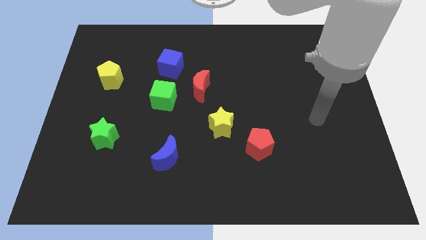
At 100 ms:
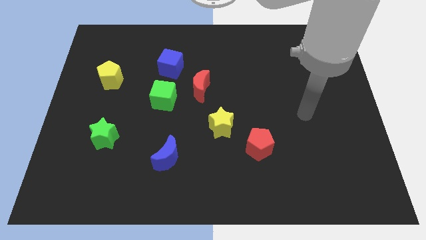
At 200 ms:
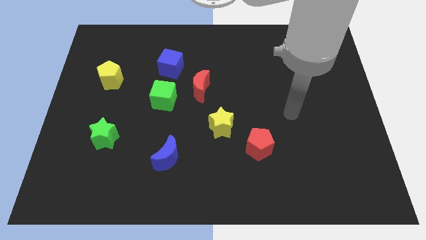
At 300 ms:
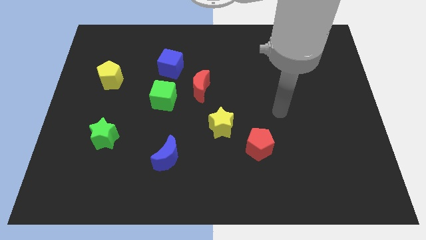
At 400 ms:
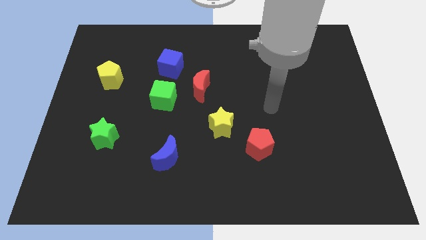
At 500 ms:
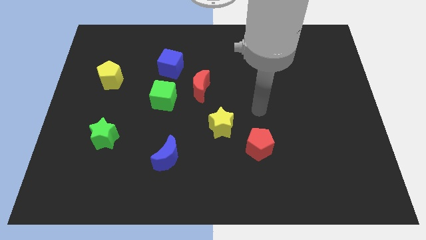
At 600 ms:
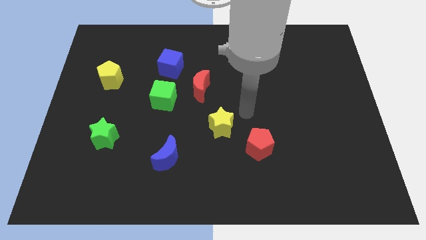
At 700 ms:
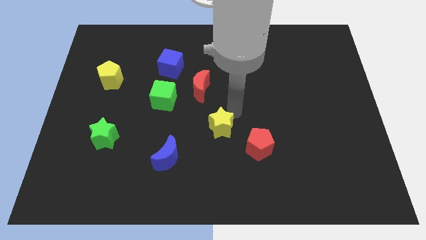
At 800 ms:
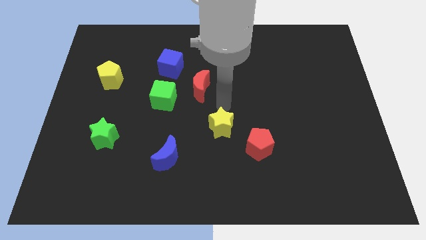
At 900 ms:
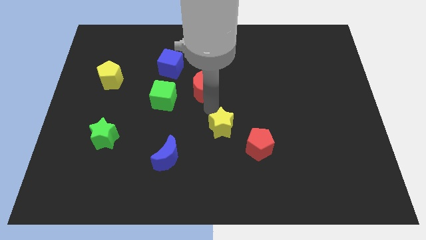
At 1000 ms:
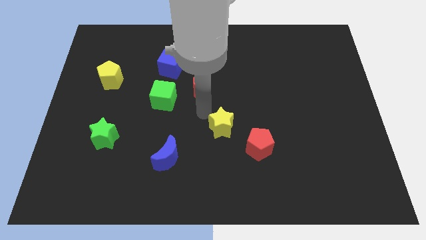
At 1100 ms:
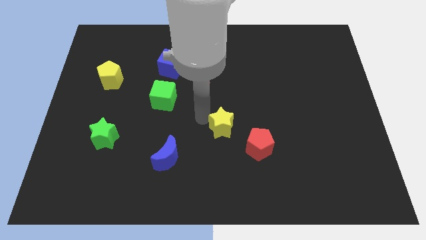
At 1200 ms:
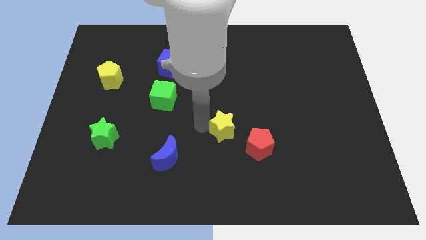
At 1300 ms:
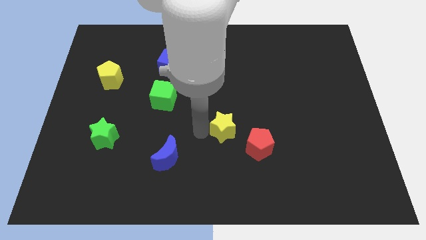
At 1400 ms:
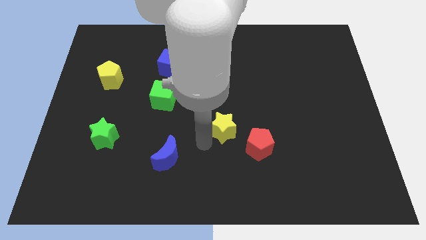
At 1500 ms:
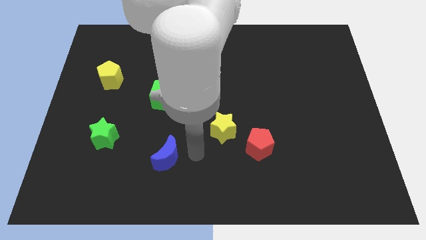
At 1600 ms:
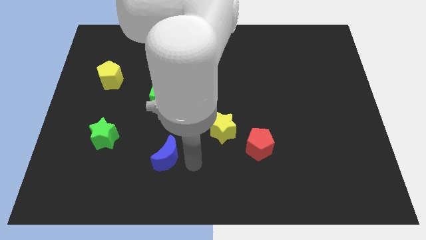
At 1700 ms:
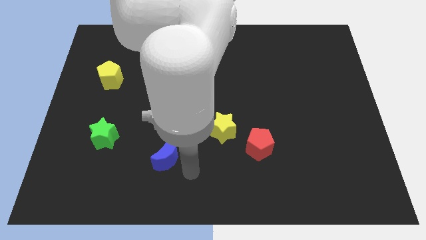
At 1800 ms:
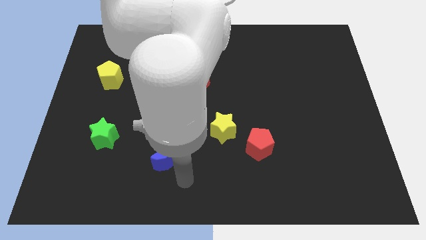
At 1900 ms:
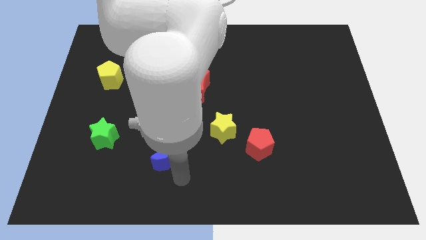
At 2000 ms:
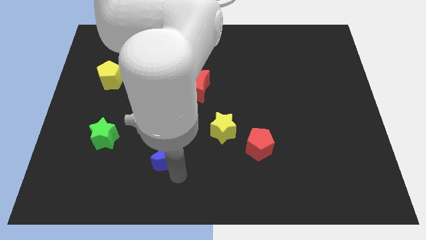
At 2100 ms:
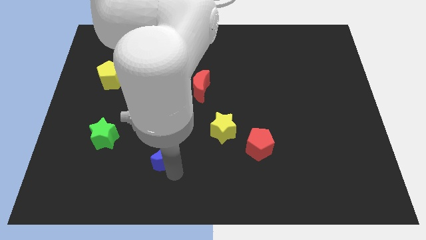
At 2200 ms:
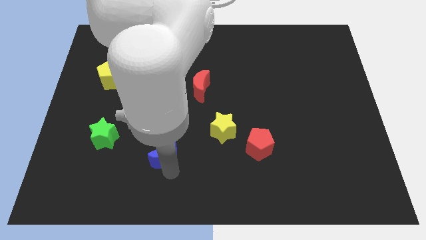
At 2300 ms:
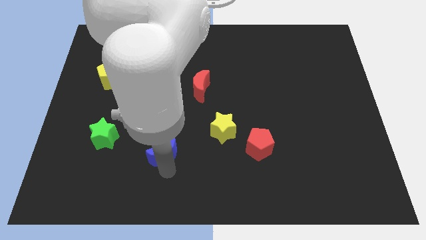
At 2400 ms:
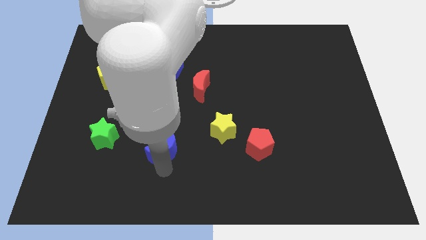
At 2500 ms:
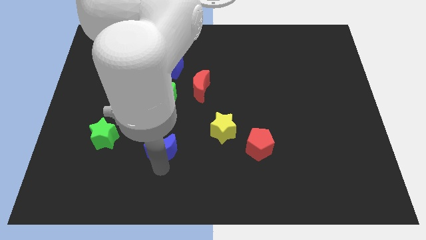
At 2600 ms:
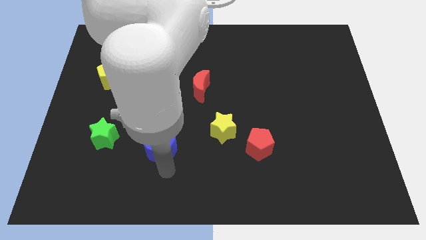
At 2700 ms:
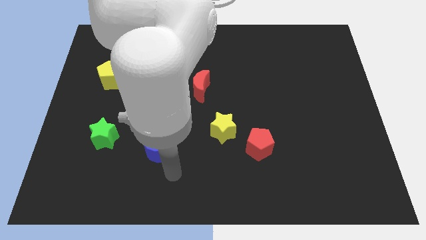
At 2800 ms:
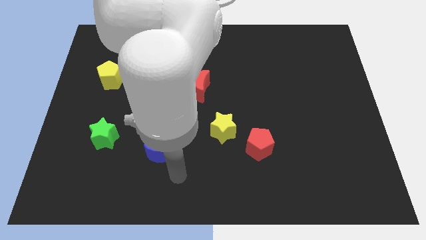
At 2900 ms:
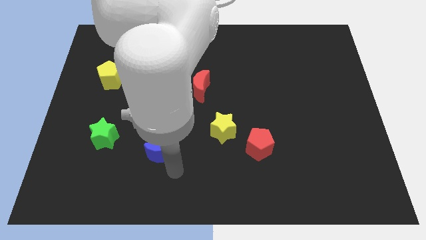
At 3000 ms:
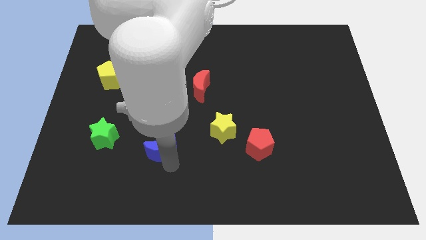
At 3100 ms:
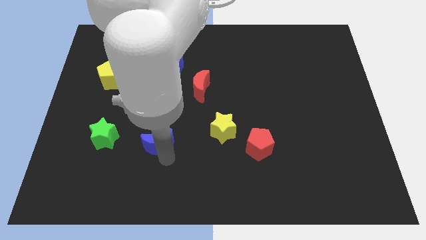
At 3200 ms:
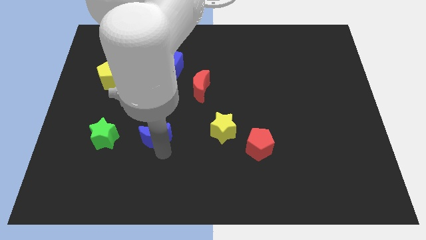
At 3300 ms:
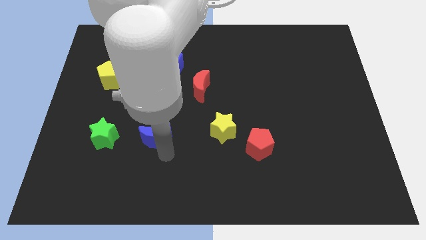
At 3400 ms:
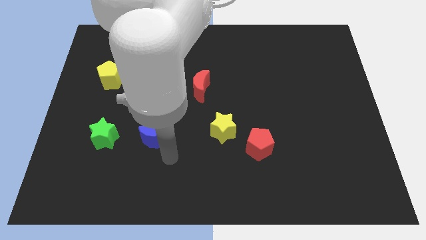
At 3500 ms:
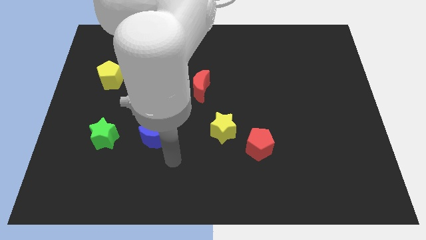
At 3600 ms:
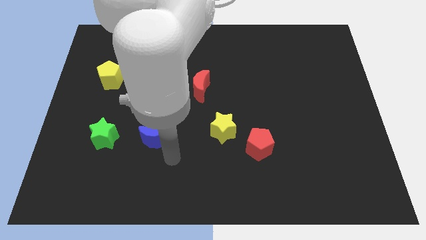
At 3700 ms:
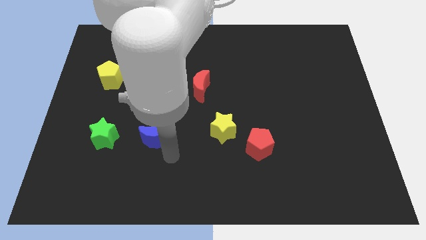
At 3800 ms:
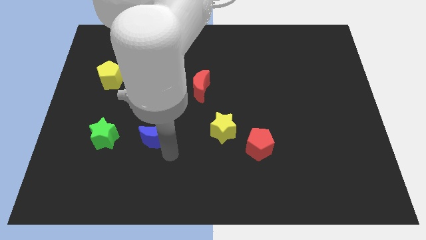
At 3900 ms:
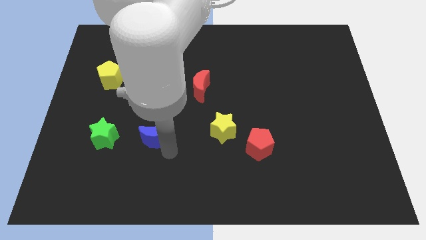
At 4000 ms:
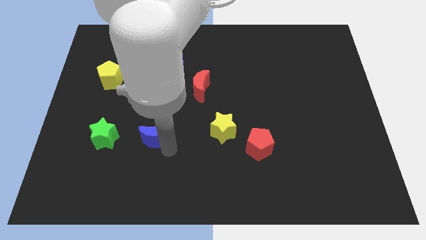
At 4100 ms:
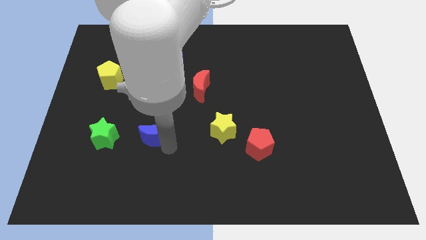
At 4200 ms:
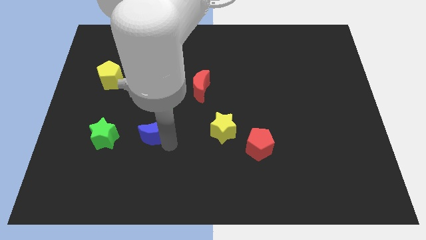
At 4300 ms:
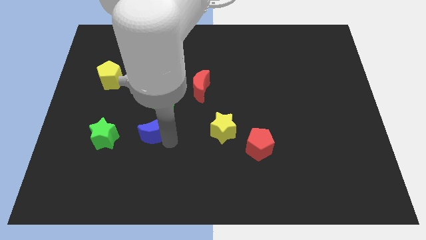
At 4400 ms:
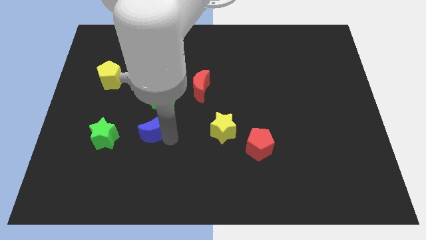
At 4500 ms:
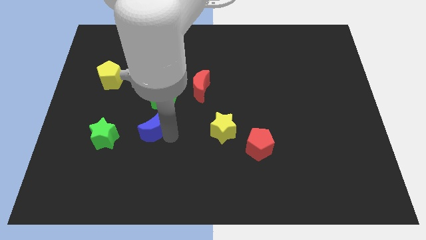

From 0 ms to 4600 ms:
move the blue moon a bit up

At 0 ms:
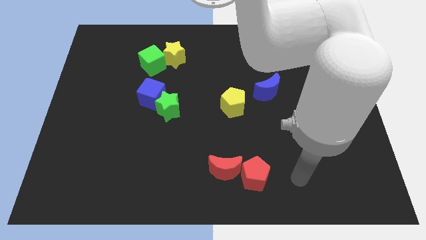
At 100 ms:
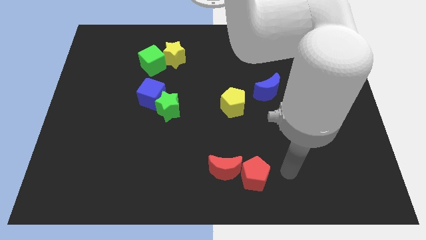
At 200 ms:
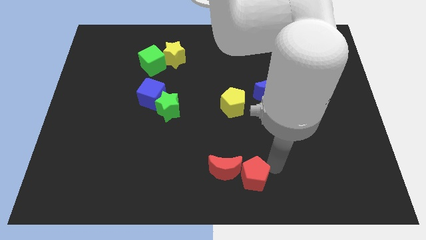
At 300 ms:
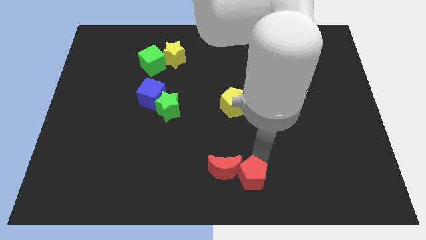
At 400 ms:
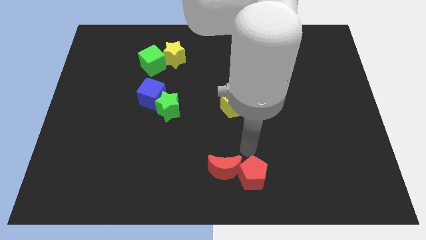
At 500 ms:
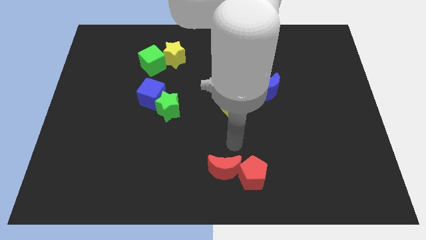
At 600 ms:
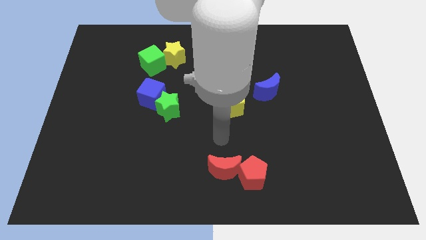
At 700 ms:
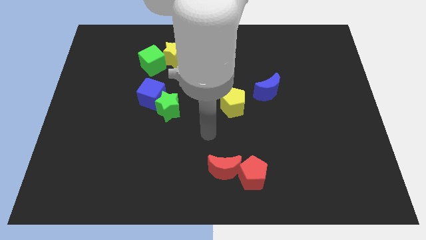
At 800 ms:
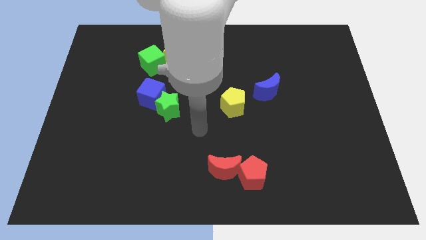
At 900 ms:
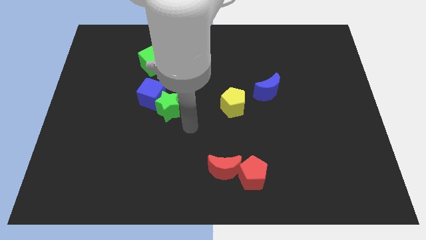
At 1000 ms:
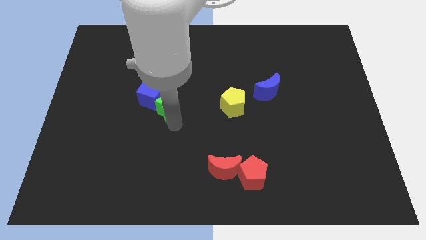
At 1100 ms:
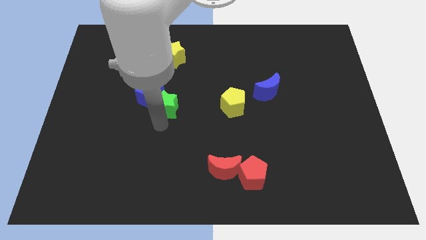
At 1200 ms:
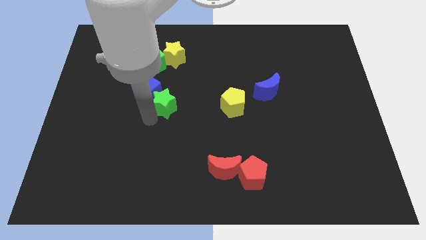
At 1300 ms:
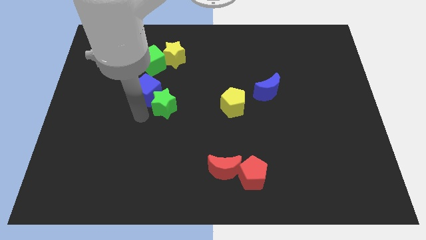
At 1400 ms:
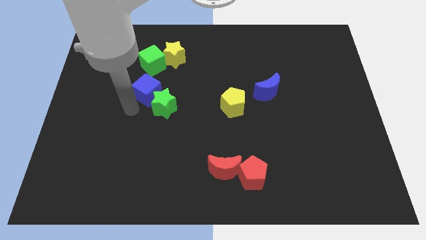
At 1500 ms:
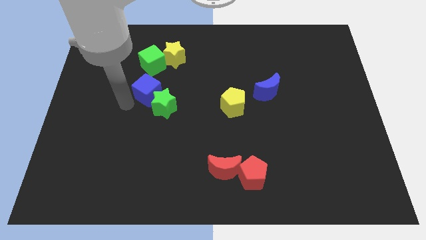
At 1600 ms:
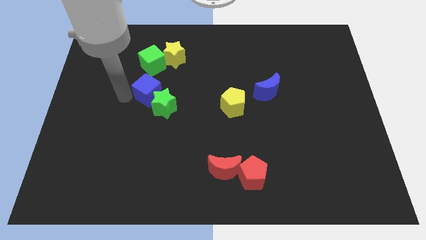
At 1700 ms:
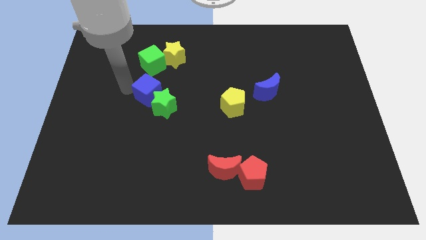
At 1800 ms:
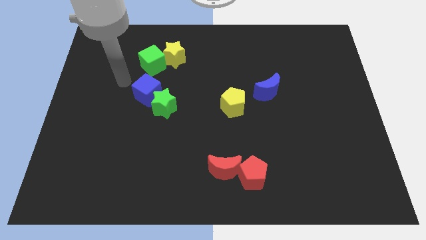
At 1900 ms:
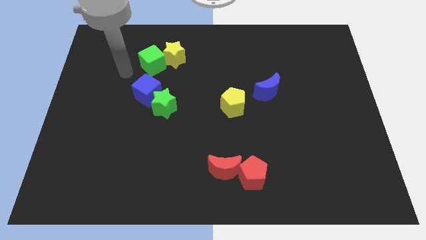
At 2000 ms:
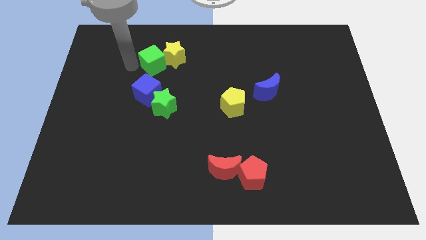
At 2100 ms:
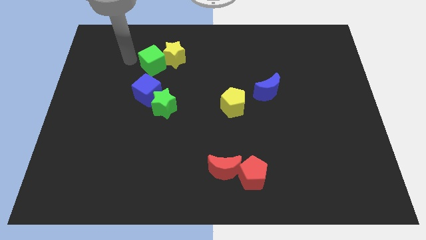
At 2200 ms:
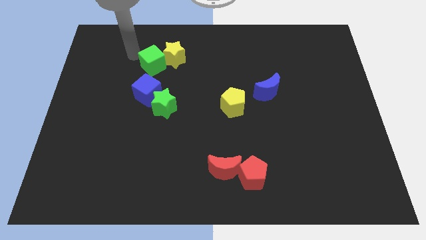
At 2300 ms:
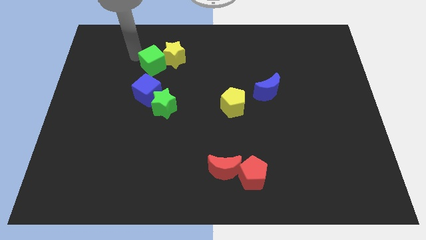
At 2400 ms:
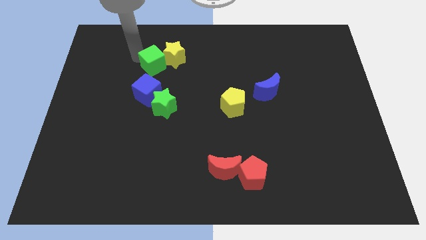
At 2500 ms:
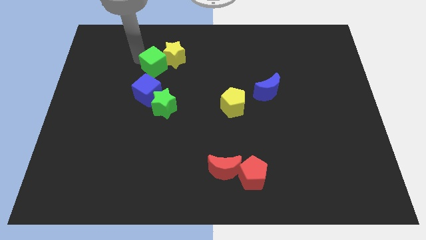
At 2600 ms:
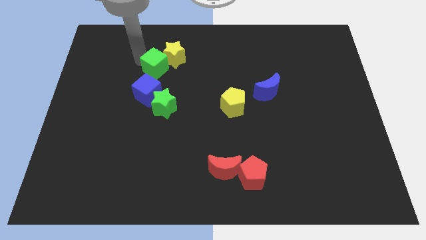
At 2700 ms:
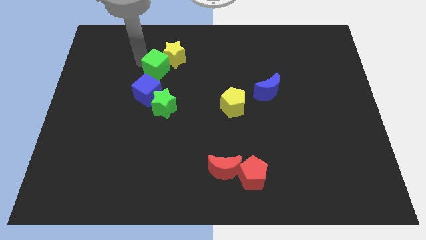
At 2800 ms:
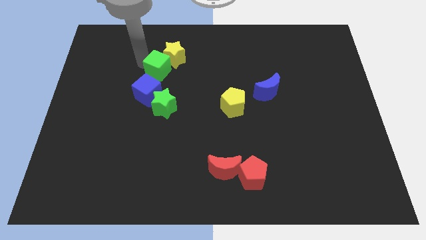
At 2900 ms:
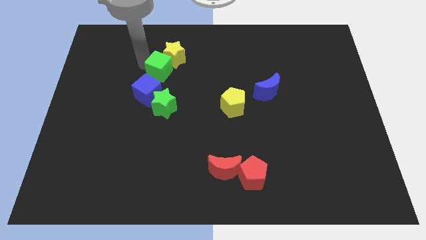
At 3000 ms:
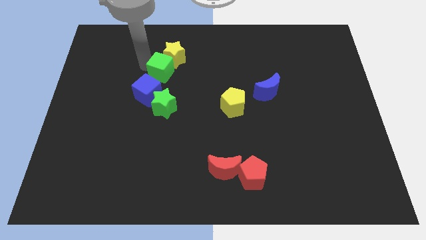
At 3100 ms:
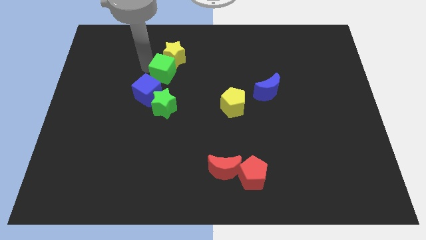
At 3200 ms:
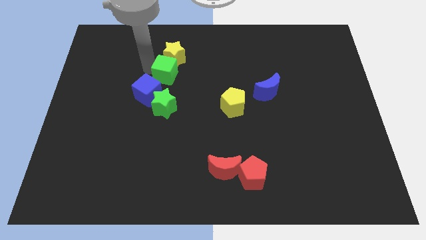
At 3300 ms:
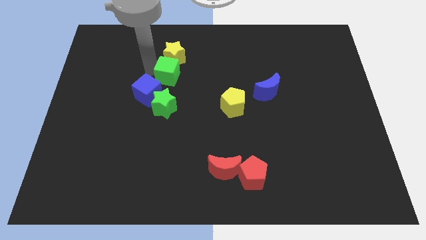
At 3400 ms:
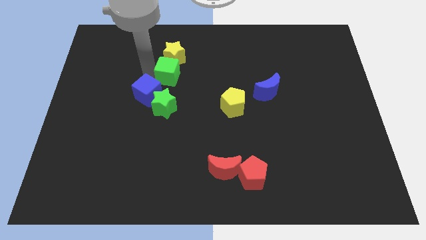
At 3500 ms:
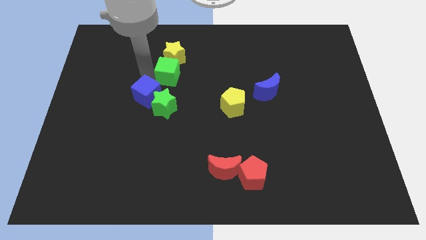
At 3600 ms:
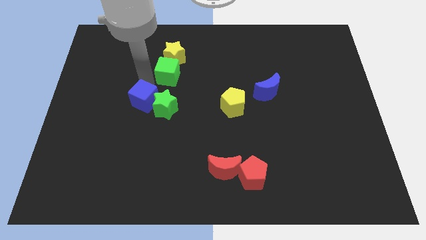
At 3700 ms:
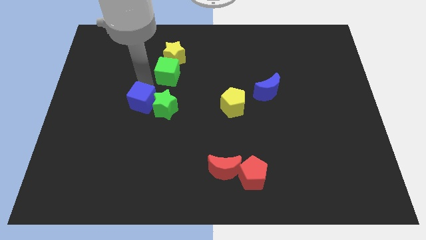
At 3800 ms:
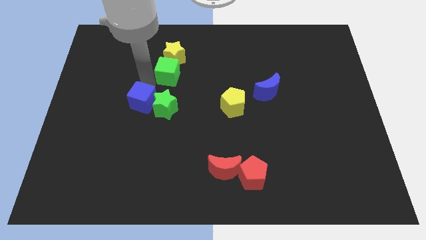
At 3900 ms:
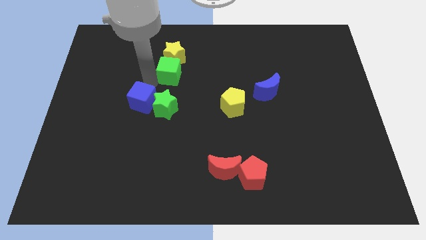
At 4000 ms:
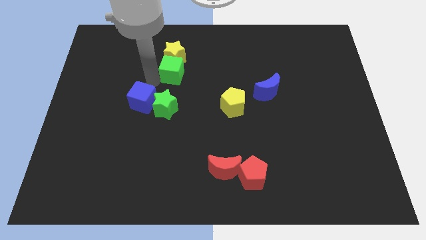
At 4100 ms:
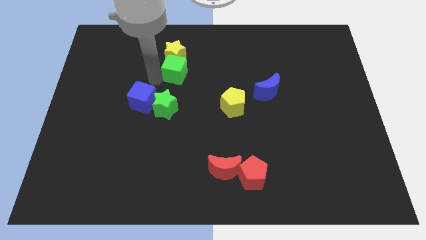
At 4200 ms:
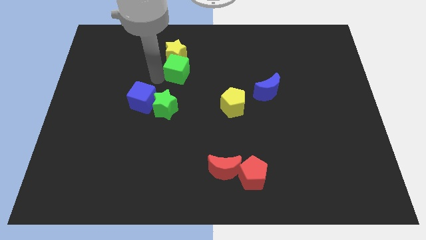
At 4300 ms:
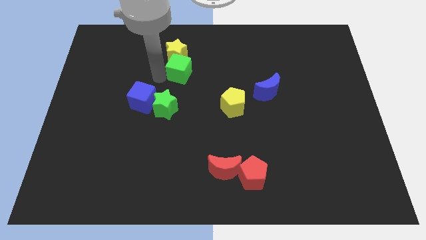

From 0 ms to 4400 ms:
slide the green cube right a little bit
